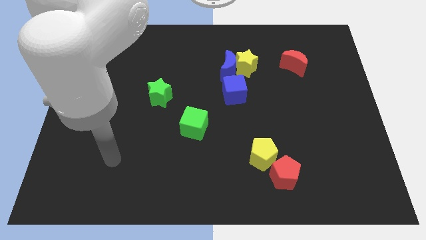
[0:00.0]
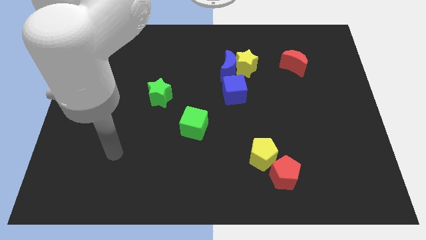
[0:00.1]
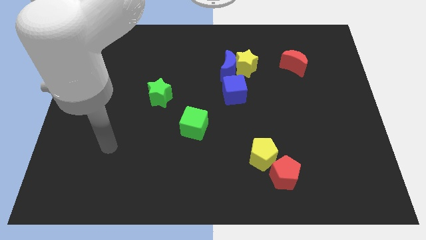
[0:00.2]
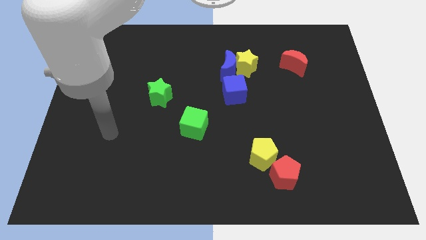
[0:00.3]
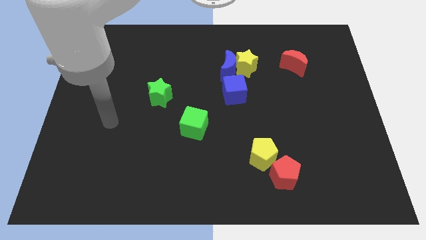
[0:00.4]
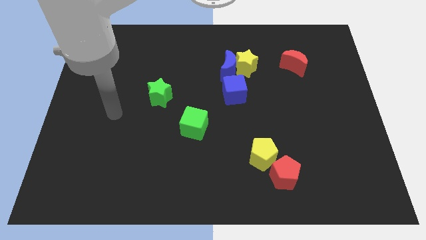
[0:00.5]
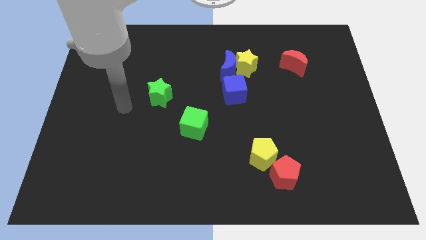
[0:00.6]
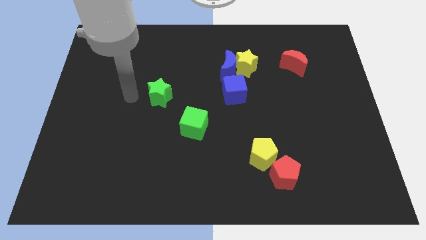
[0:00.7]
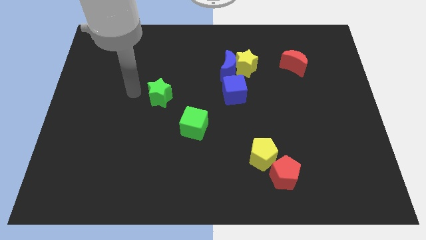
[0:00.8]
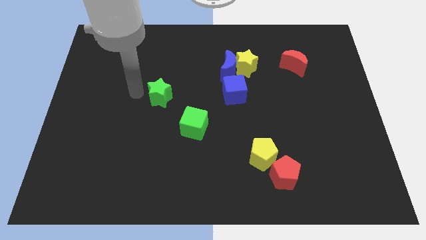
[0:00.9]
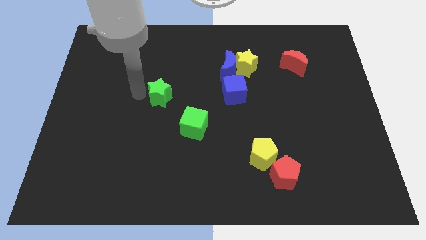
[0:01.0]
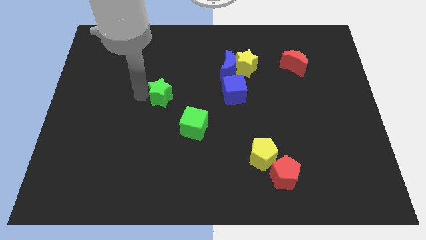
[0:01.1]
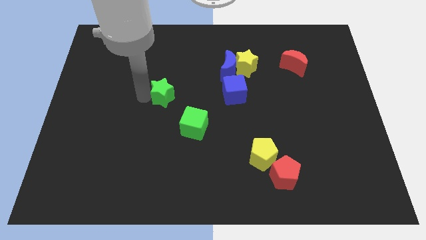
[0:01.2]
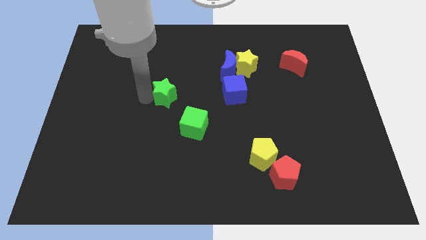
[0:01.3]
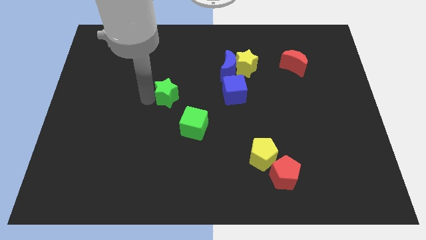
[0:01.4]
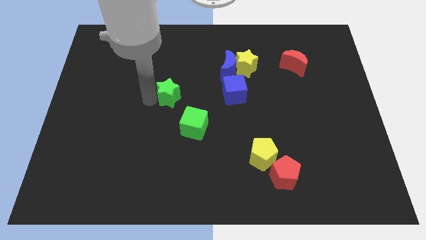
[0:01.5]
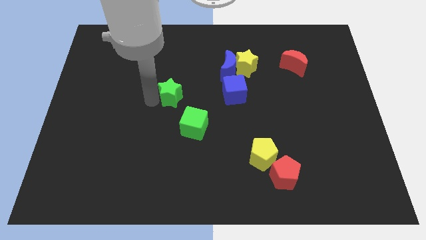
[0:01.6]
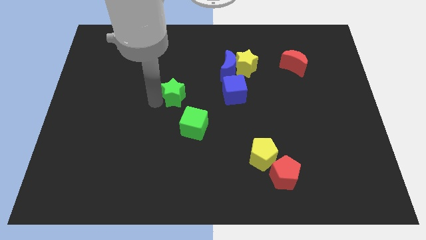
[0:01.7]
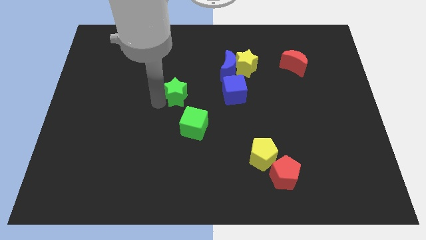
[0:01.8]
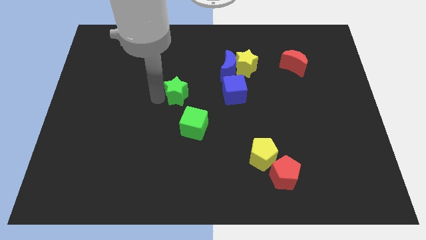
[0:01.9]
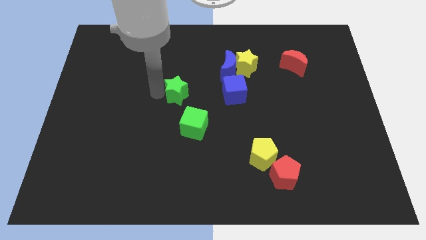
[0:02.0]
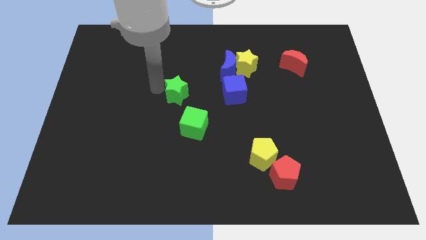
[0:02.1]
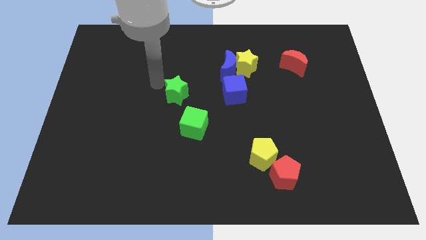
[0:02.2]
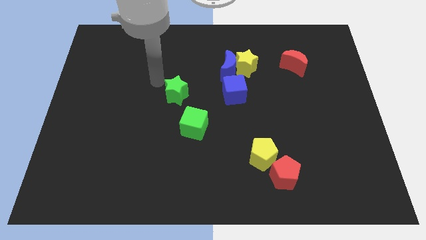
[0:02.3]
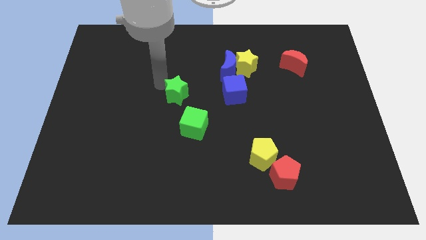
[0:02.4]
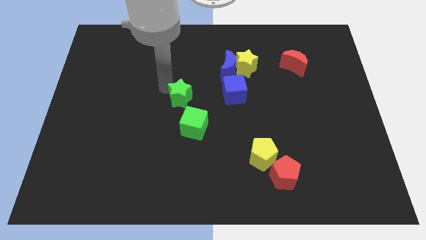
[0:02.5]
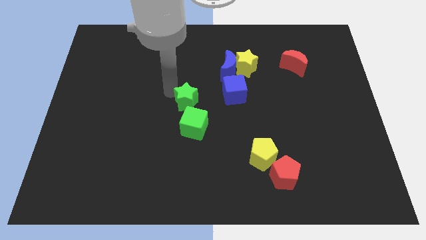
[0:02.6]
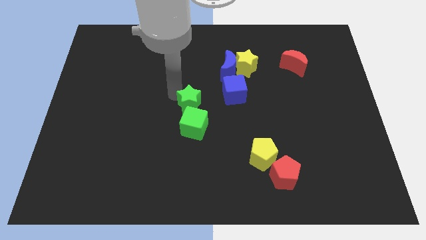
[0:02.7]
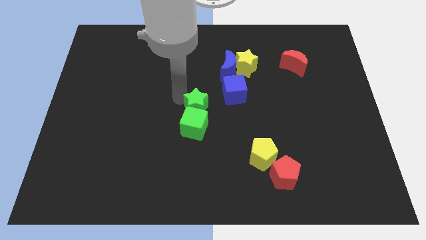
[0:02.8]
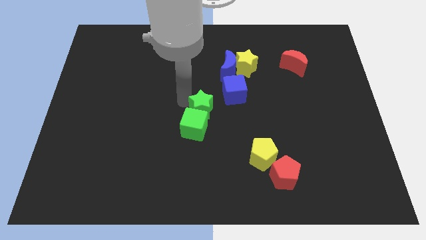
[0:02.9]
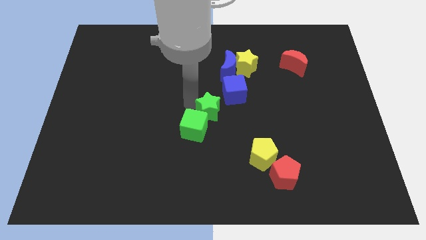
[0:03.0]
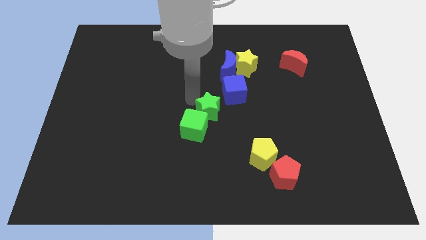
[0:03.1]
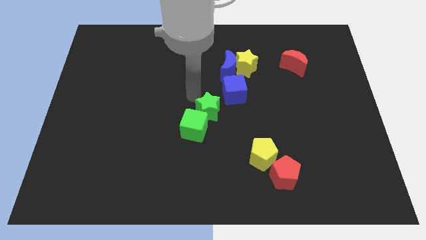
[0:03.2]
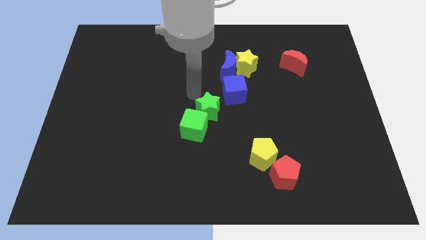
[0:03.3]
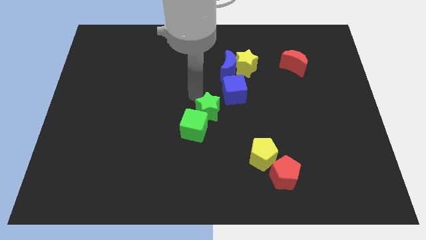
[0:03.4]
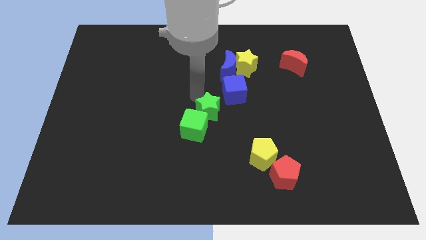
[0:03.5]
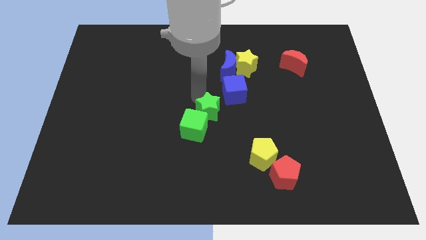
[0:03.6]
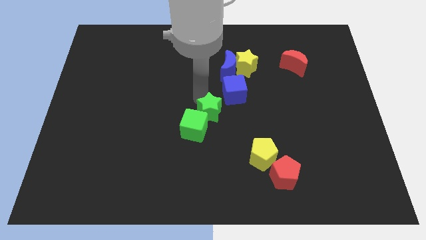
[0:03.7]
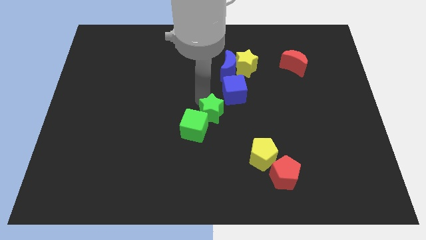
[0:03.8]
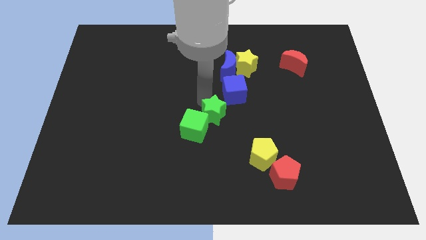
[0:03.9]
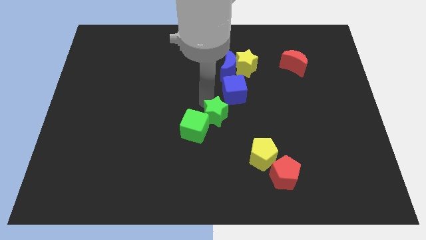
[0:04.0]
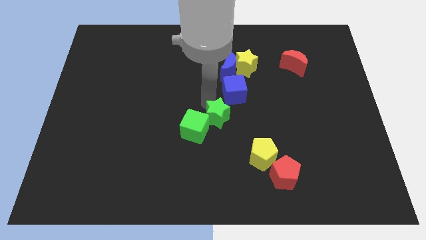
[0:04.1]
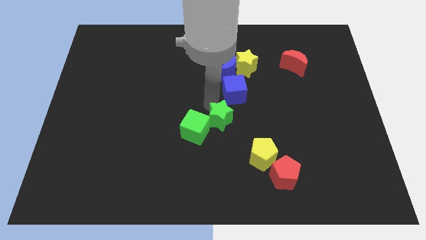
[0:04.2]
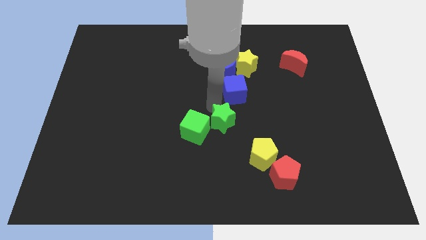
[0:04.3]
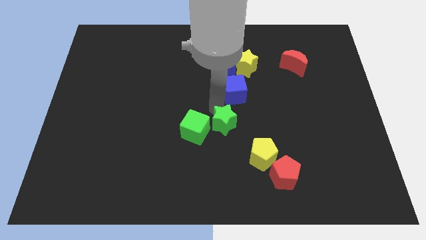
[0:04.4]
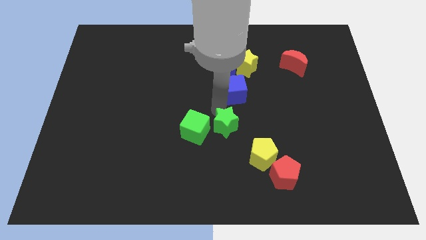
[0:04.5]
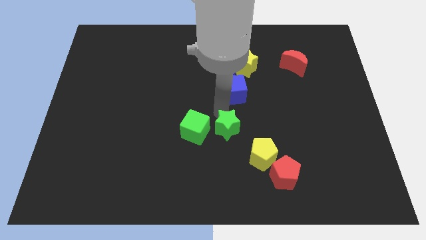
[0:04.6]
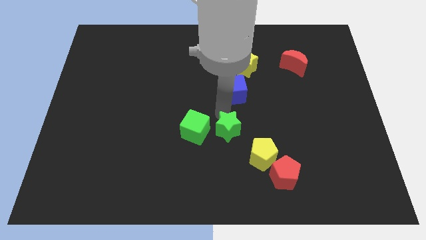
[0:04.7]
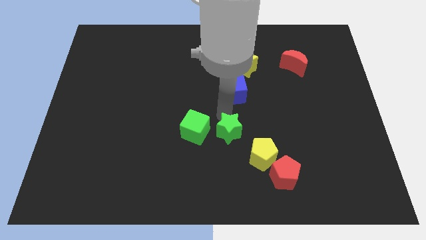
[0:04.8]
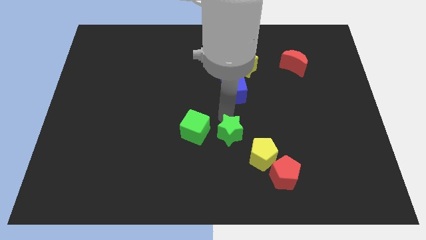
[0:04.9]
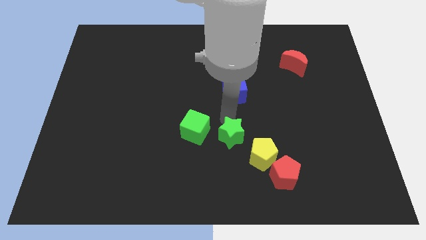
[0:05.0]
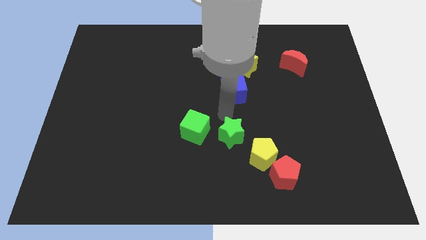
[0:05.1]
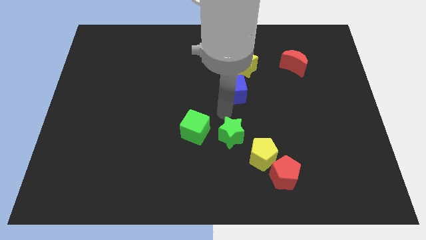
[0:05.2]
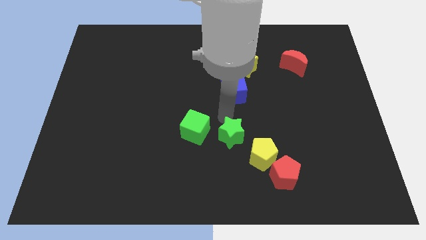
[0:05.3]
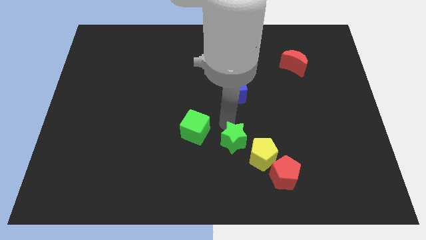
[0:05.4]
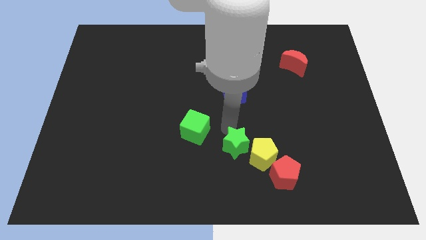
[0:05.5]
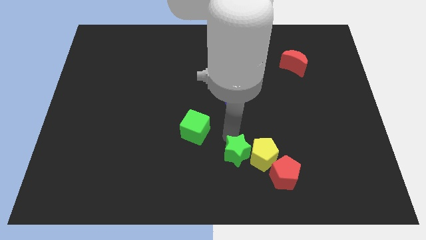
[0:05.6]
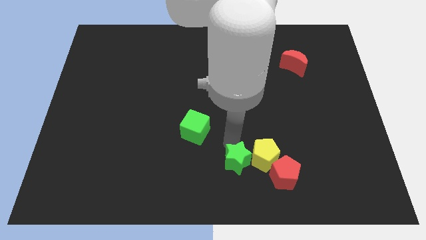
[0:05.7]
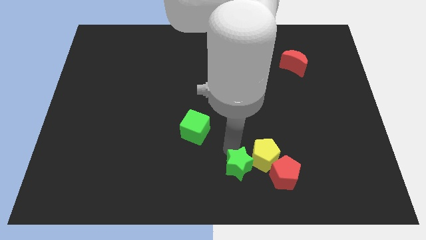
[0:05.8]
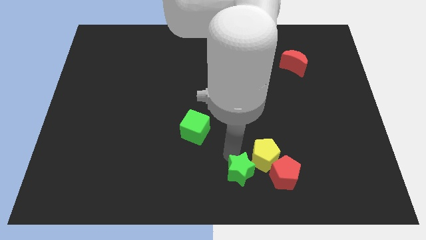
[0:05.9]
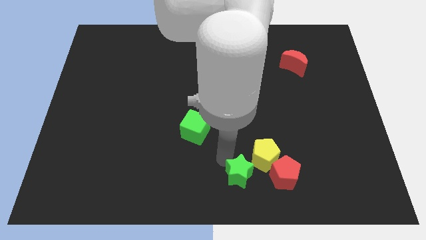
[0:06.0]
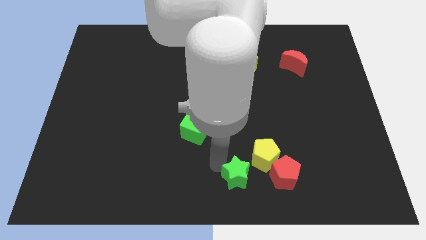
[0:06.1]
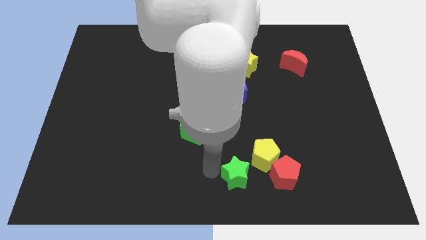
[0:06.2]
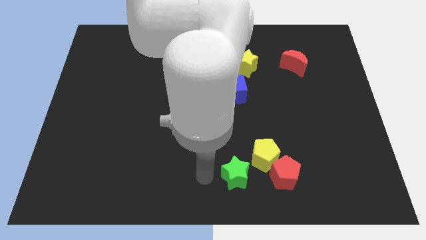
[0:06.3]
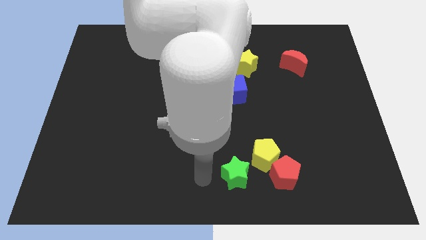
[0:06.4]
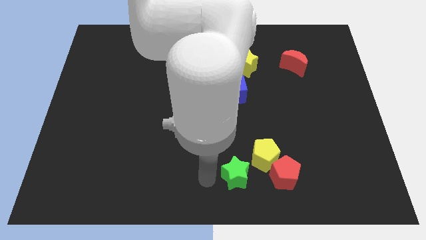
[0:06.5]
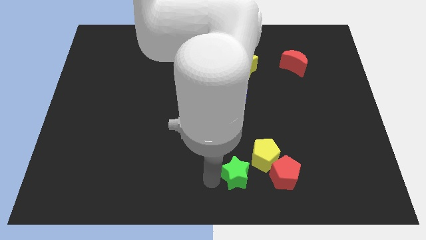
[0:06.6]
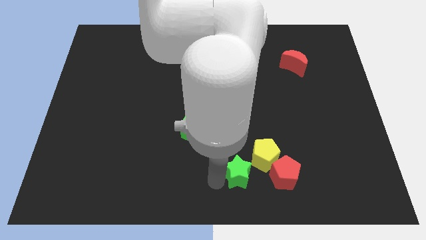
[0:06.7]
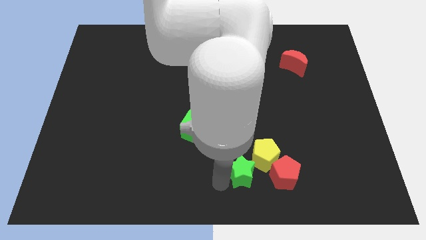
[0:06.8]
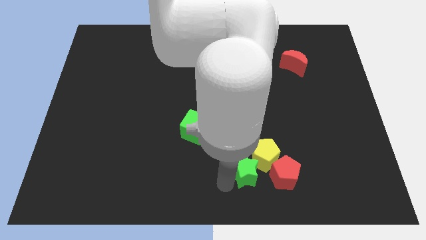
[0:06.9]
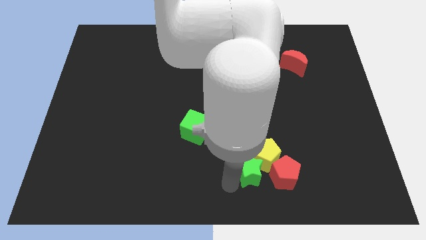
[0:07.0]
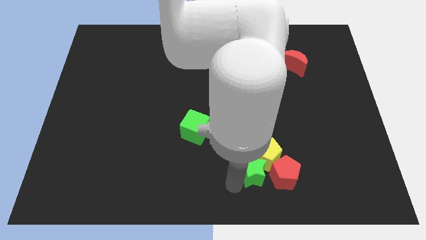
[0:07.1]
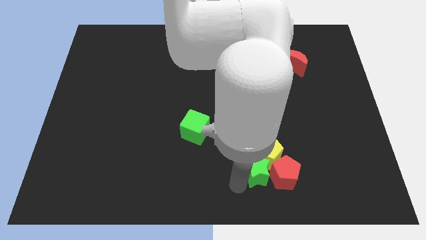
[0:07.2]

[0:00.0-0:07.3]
slide the green star next to the red pentagon
